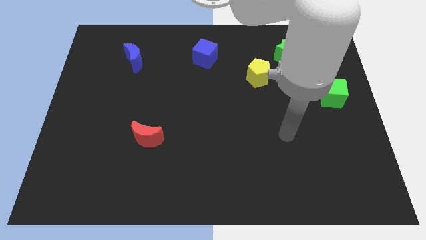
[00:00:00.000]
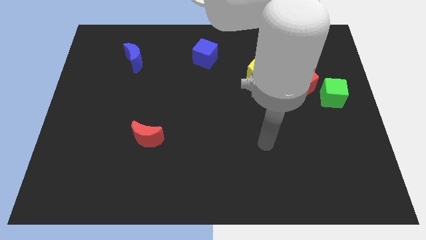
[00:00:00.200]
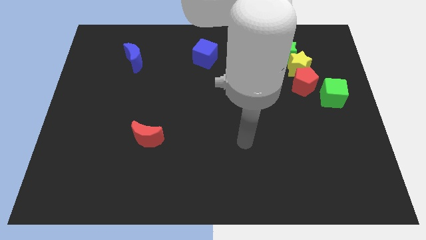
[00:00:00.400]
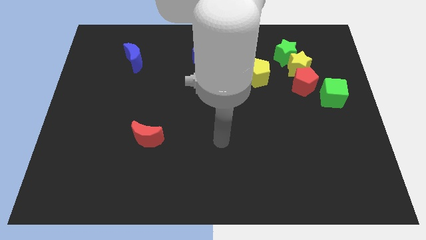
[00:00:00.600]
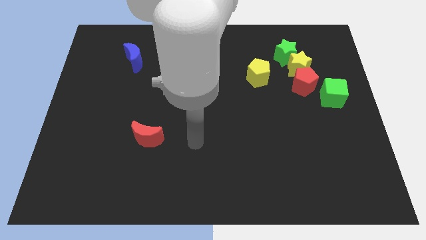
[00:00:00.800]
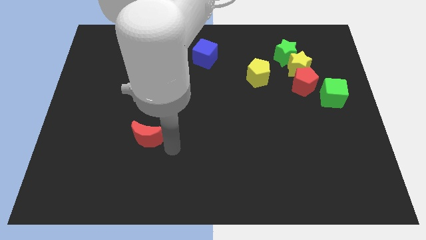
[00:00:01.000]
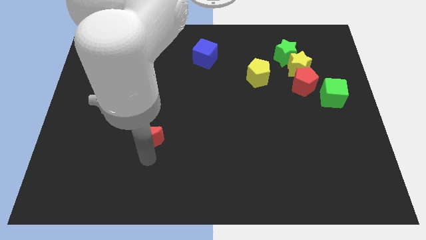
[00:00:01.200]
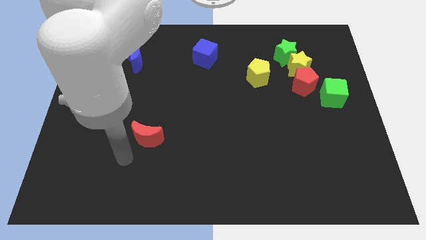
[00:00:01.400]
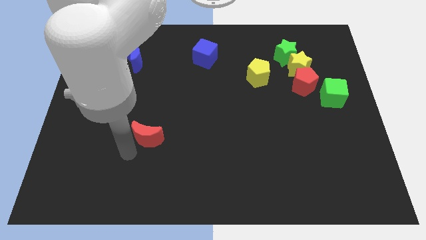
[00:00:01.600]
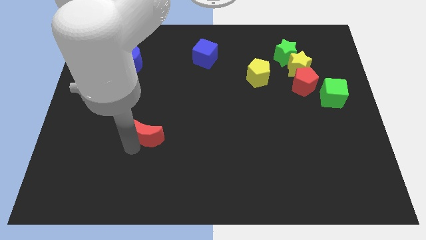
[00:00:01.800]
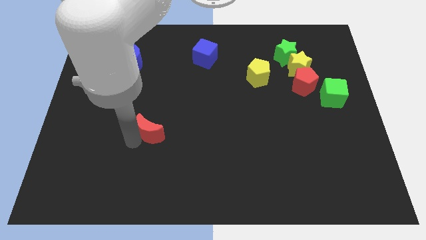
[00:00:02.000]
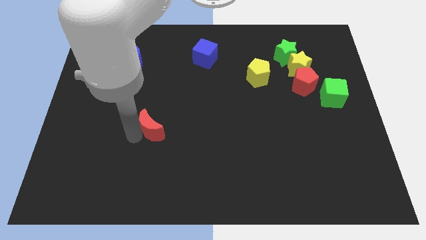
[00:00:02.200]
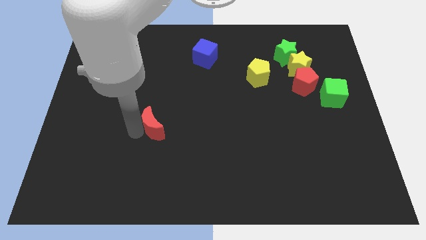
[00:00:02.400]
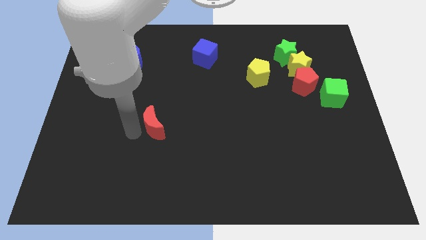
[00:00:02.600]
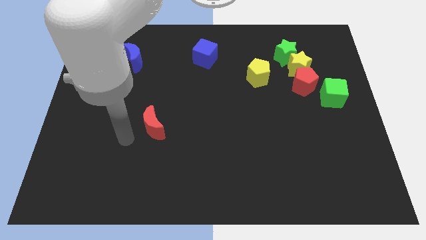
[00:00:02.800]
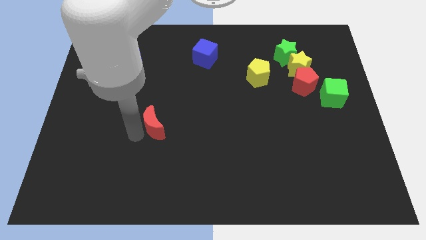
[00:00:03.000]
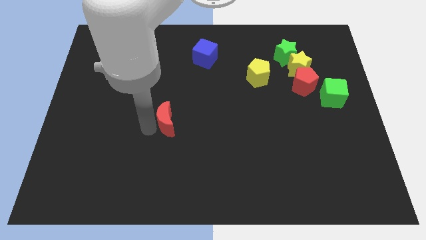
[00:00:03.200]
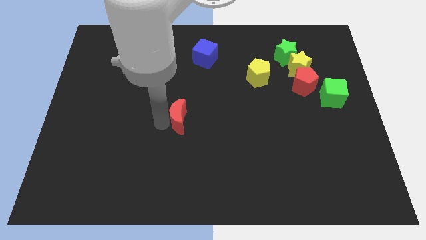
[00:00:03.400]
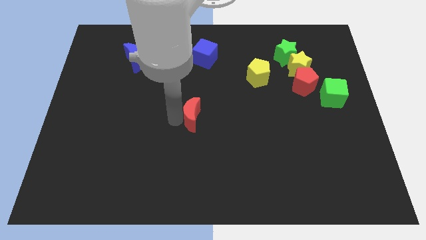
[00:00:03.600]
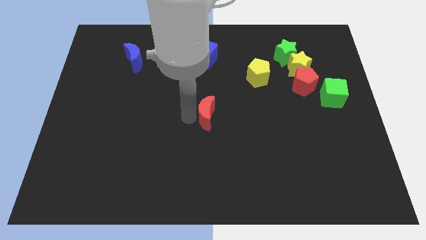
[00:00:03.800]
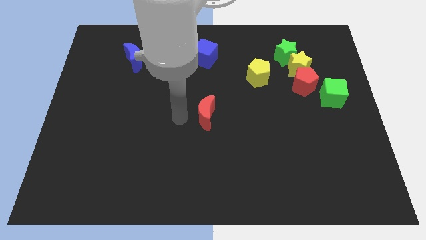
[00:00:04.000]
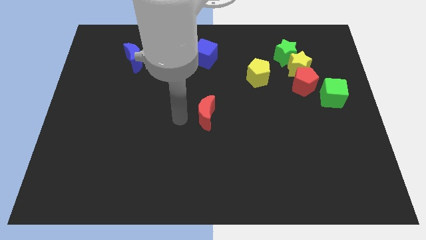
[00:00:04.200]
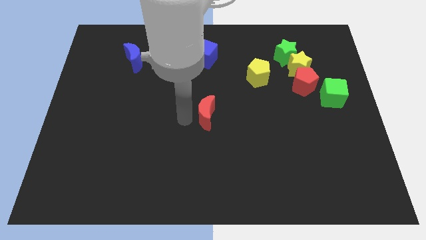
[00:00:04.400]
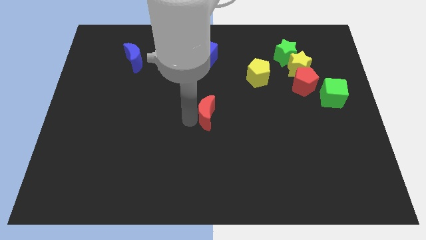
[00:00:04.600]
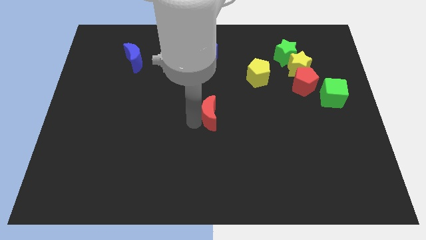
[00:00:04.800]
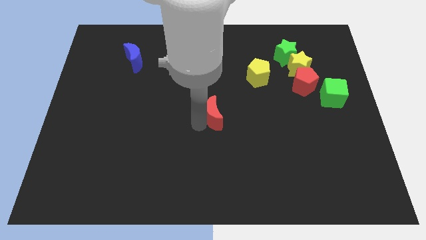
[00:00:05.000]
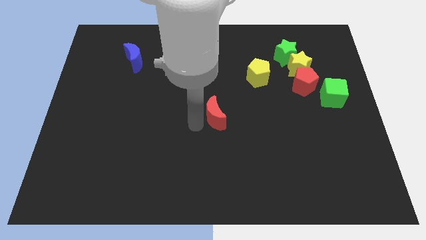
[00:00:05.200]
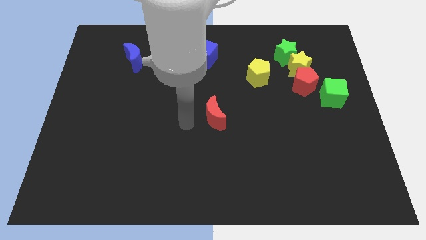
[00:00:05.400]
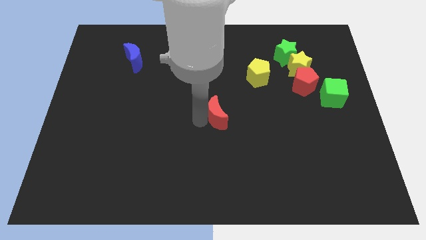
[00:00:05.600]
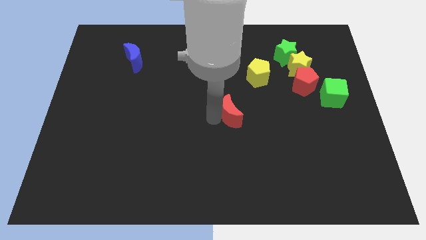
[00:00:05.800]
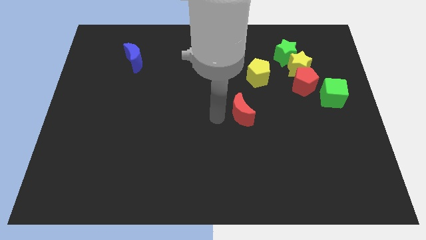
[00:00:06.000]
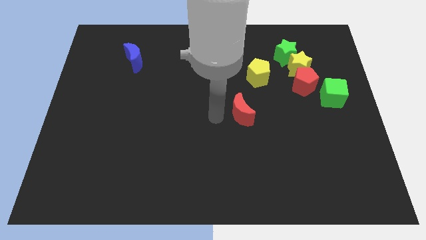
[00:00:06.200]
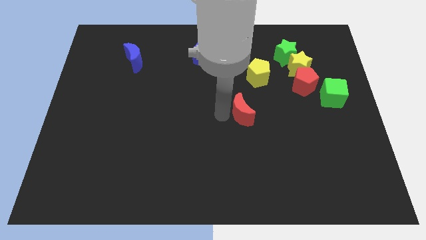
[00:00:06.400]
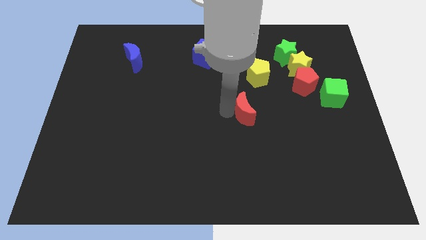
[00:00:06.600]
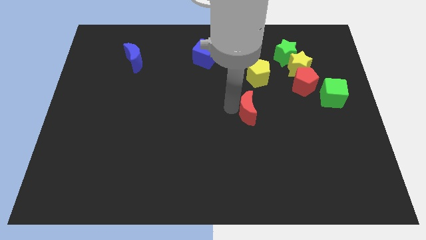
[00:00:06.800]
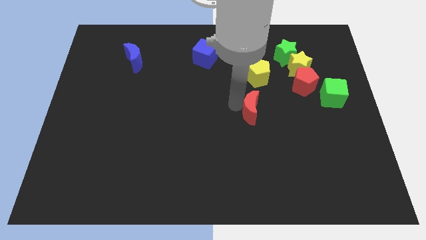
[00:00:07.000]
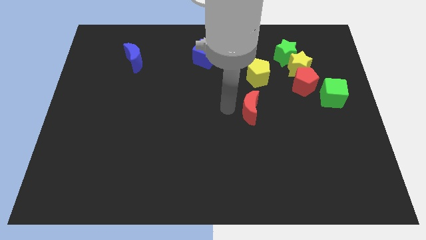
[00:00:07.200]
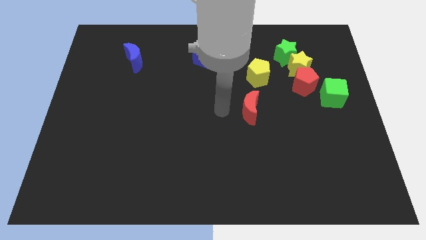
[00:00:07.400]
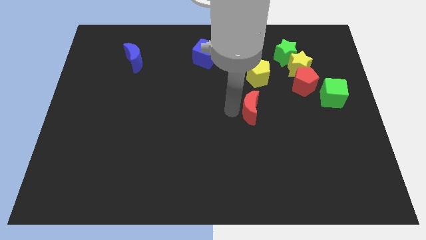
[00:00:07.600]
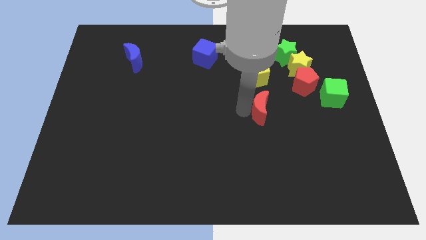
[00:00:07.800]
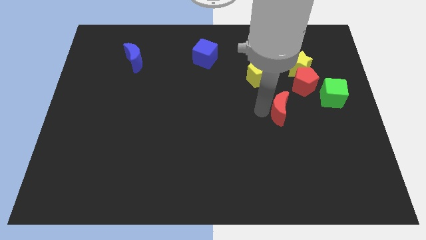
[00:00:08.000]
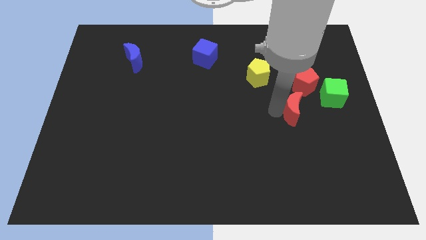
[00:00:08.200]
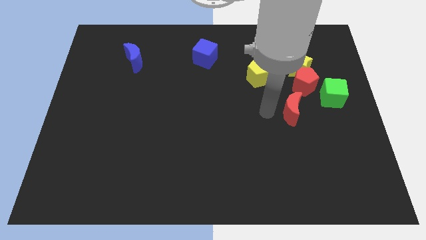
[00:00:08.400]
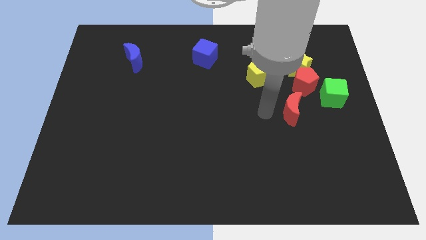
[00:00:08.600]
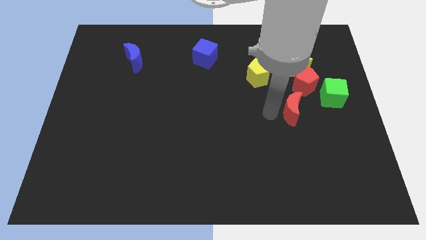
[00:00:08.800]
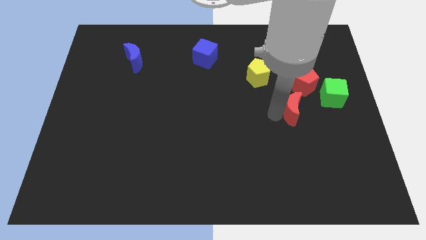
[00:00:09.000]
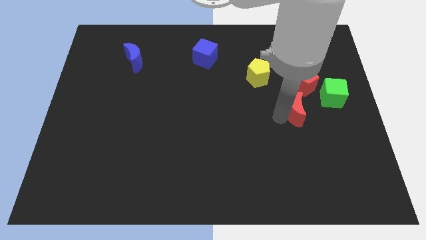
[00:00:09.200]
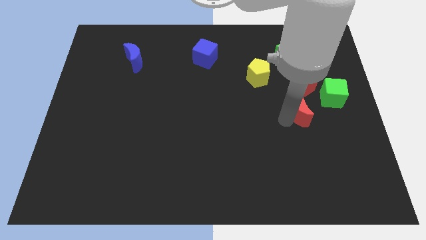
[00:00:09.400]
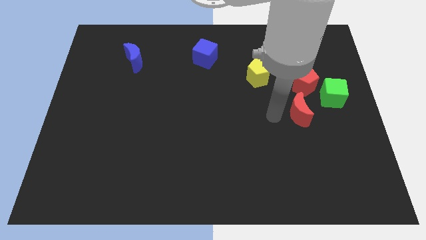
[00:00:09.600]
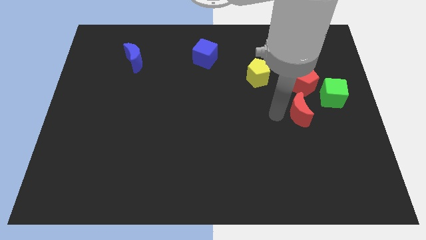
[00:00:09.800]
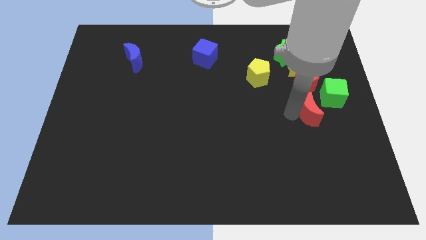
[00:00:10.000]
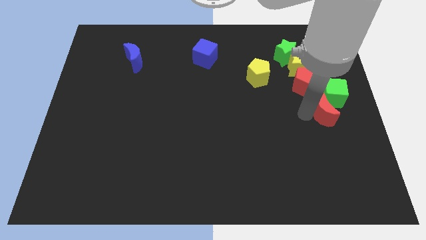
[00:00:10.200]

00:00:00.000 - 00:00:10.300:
push the red moon to the right side

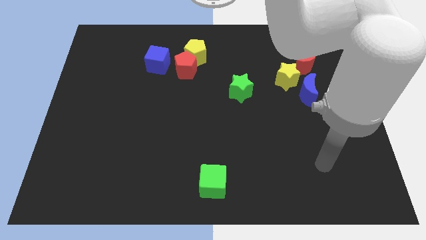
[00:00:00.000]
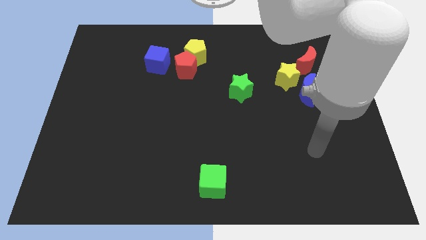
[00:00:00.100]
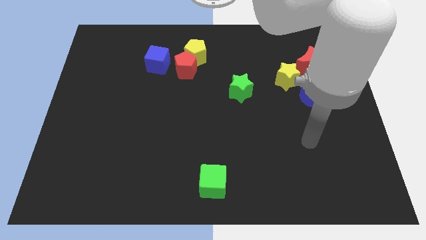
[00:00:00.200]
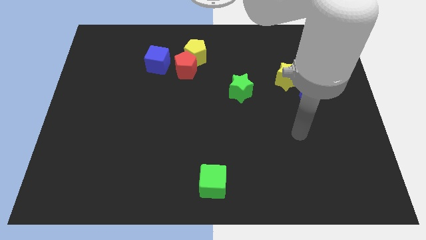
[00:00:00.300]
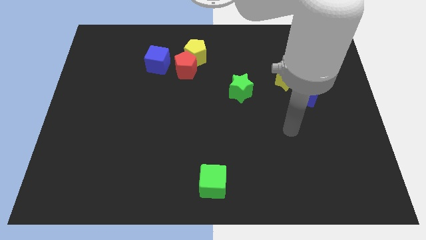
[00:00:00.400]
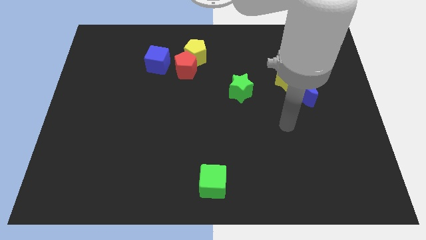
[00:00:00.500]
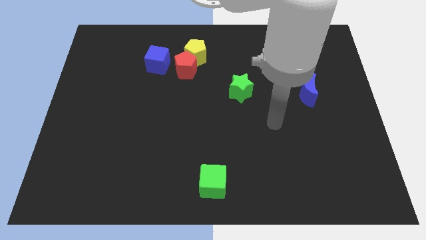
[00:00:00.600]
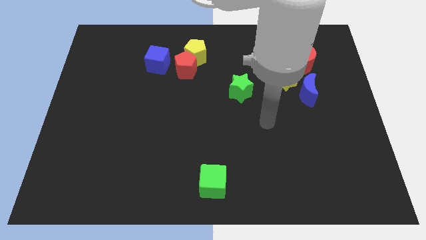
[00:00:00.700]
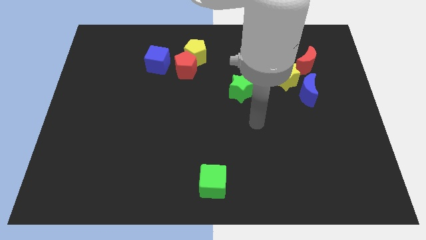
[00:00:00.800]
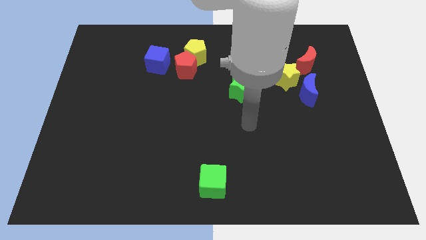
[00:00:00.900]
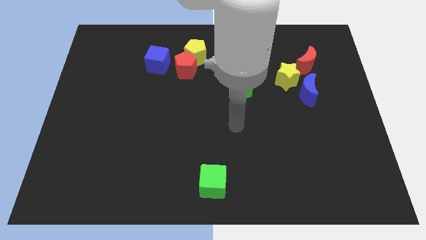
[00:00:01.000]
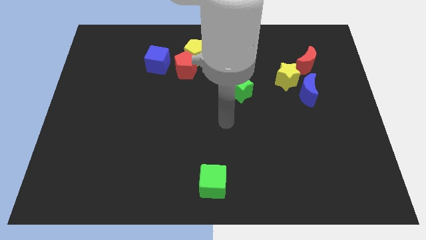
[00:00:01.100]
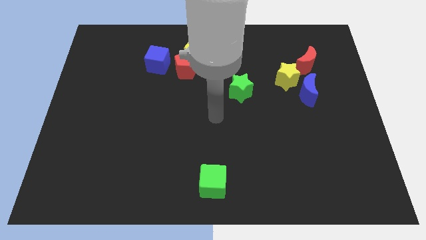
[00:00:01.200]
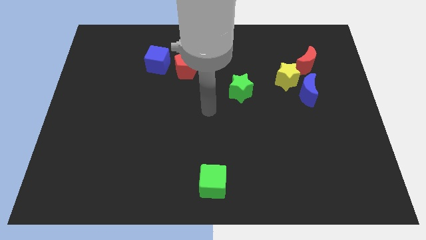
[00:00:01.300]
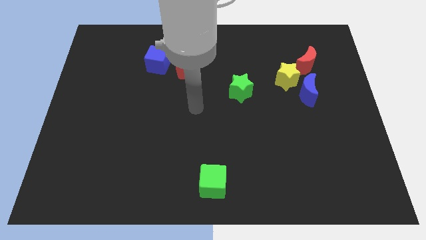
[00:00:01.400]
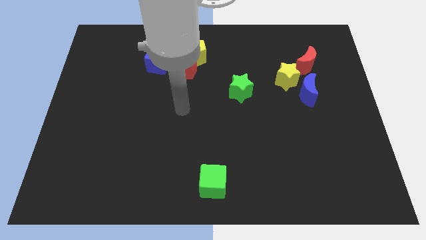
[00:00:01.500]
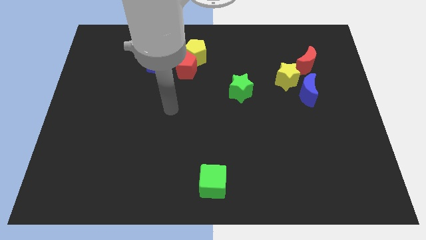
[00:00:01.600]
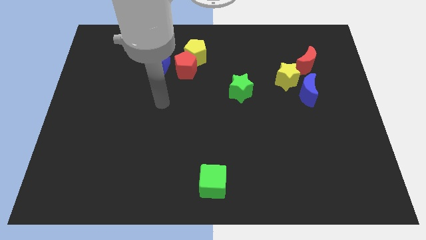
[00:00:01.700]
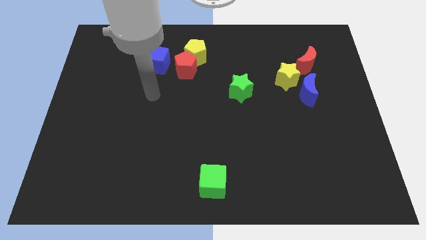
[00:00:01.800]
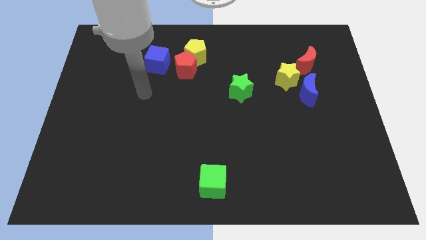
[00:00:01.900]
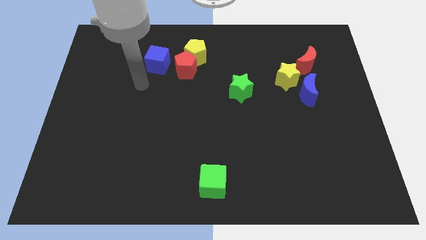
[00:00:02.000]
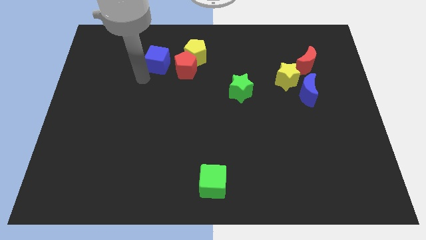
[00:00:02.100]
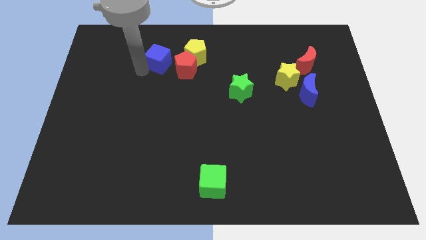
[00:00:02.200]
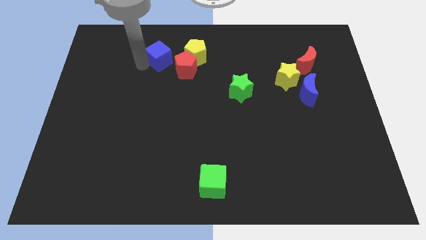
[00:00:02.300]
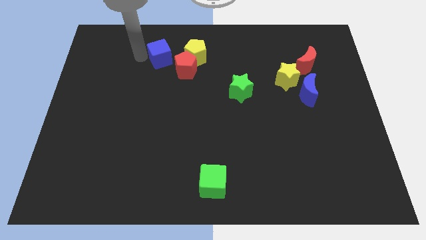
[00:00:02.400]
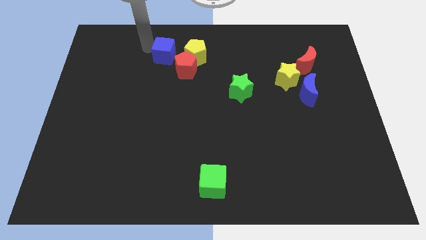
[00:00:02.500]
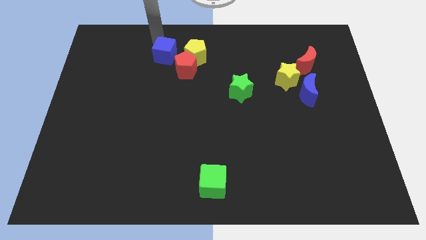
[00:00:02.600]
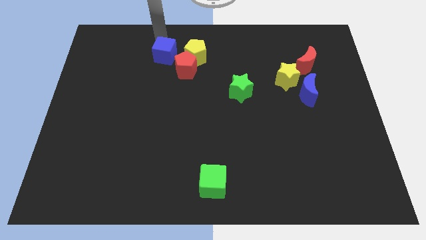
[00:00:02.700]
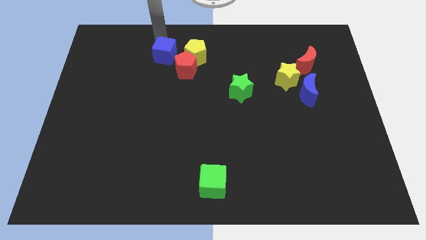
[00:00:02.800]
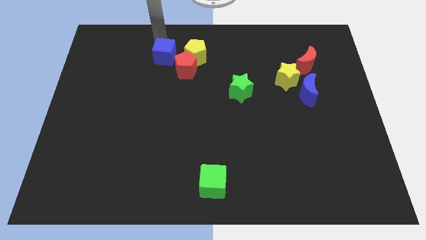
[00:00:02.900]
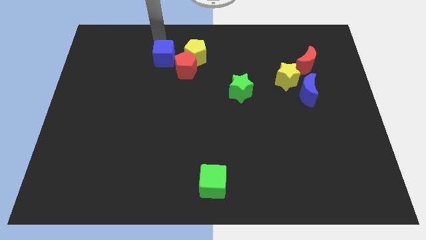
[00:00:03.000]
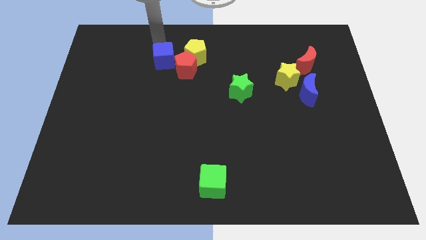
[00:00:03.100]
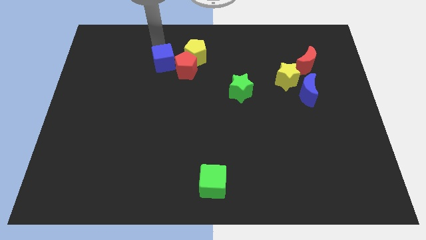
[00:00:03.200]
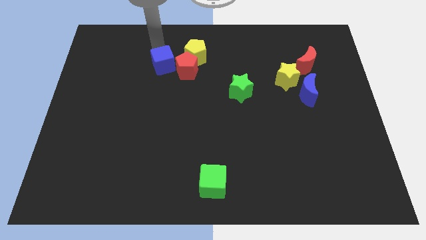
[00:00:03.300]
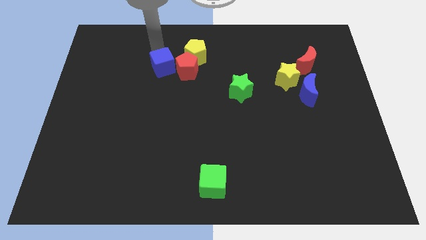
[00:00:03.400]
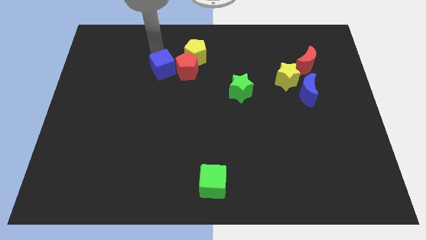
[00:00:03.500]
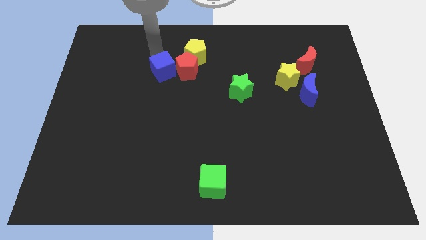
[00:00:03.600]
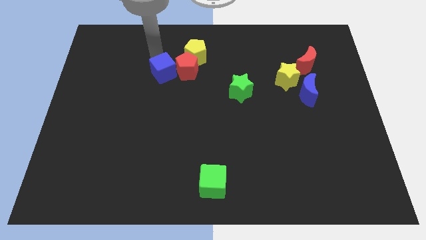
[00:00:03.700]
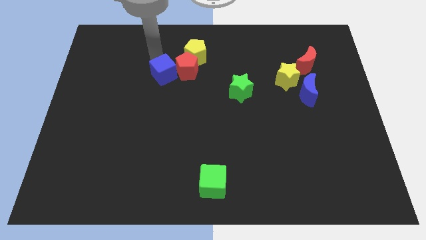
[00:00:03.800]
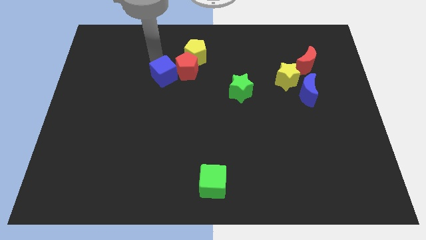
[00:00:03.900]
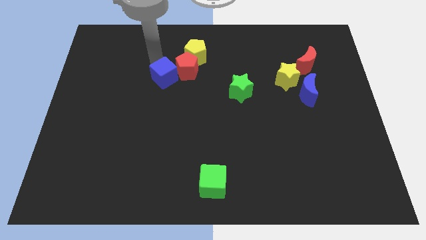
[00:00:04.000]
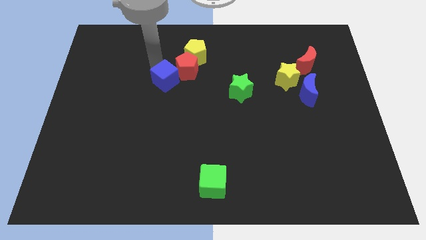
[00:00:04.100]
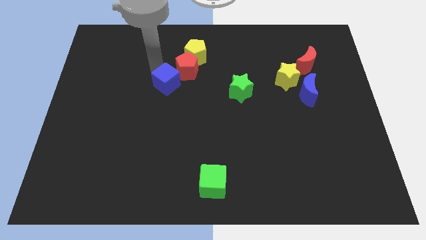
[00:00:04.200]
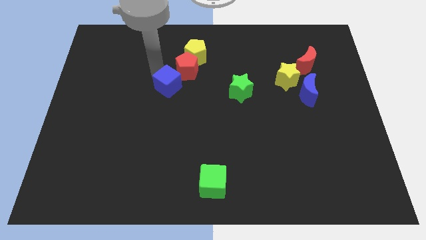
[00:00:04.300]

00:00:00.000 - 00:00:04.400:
move the blue cube to the middle of the board
